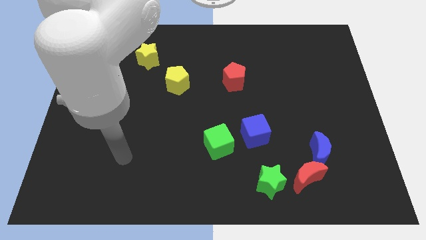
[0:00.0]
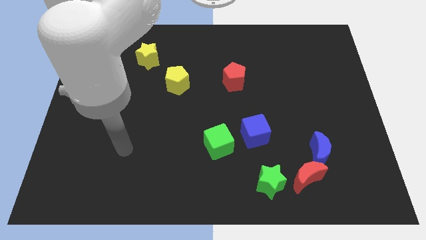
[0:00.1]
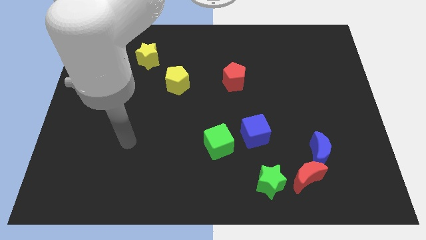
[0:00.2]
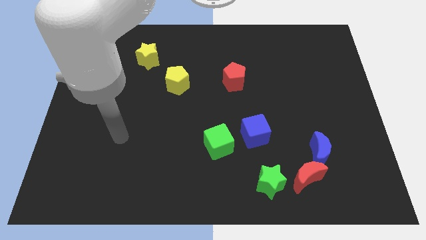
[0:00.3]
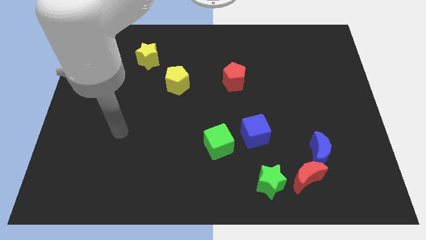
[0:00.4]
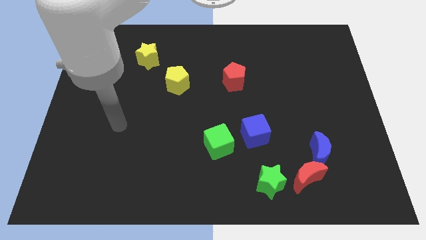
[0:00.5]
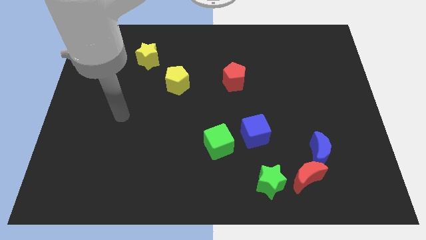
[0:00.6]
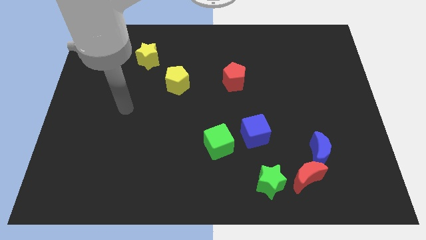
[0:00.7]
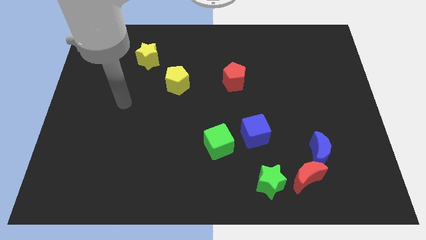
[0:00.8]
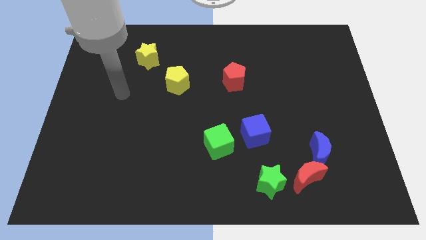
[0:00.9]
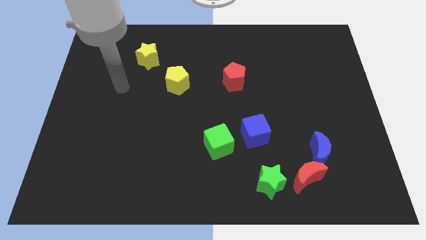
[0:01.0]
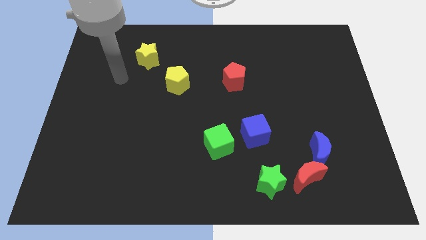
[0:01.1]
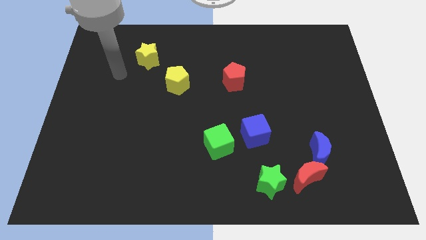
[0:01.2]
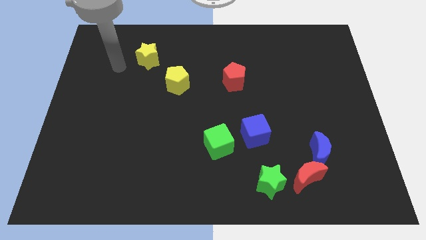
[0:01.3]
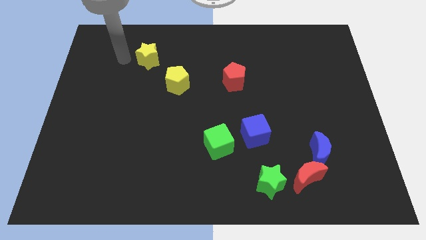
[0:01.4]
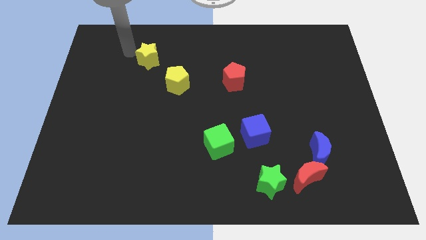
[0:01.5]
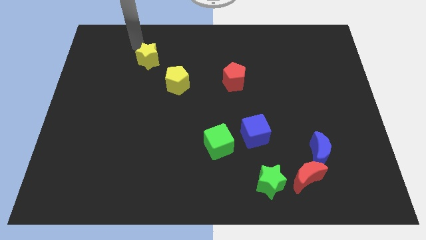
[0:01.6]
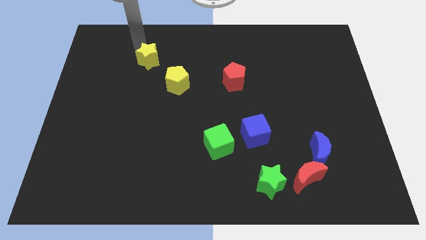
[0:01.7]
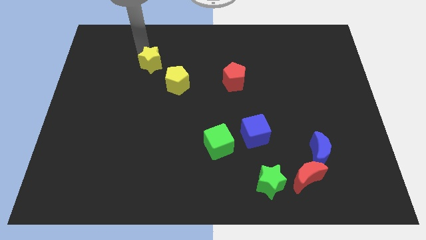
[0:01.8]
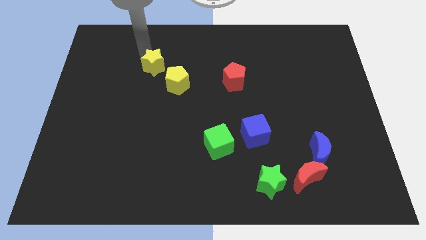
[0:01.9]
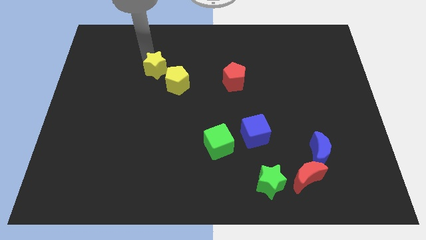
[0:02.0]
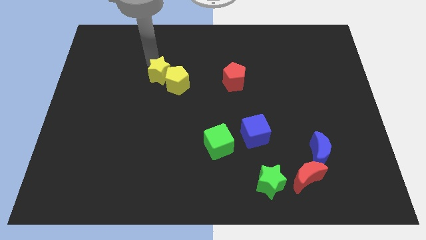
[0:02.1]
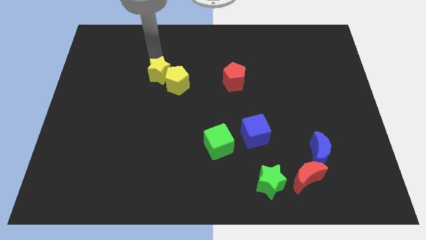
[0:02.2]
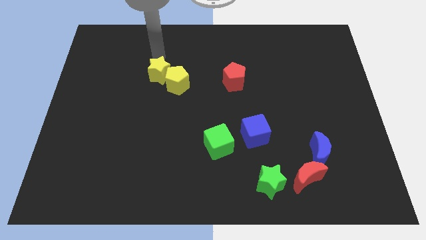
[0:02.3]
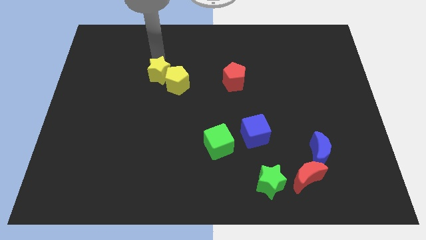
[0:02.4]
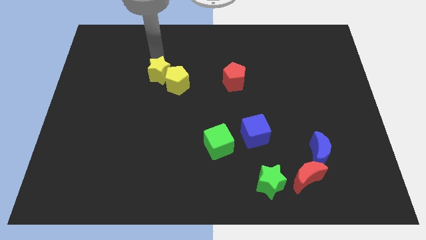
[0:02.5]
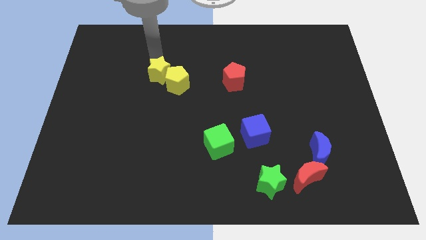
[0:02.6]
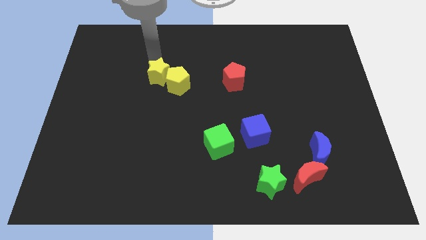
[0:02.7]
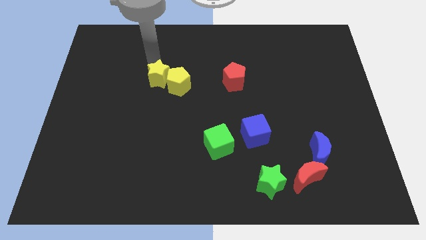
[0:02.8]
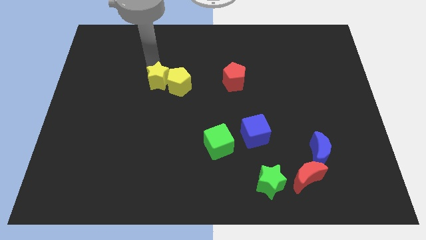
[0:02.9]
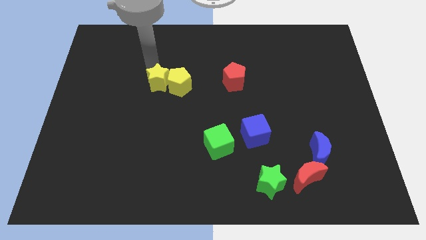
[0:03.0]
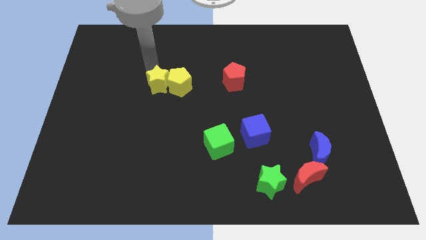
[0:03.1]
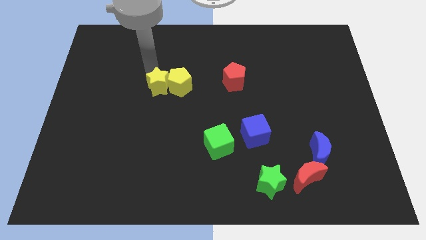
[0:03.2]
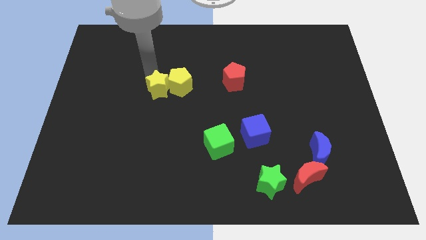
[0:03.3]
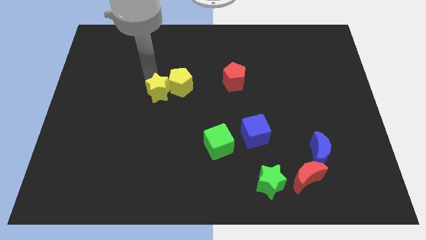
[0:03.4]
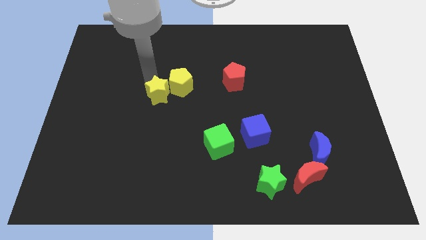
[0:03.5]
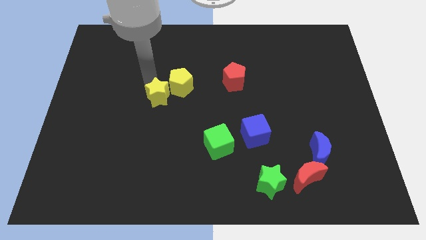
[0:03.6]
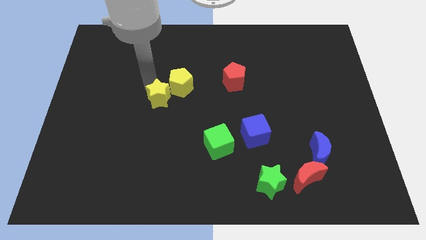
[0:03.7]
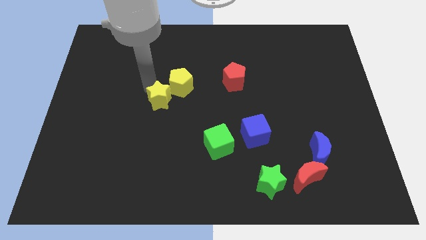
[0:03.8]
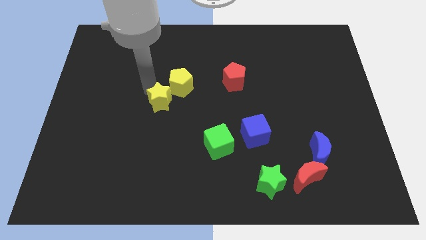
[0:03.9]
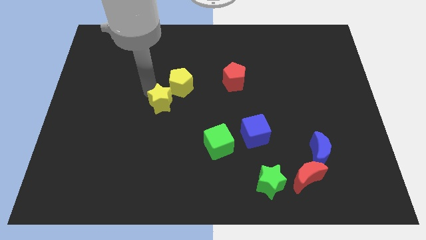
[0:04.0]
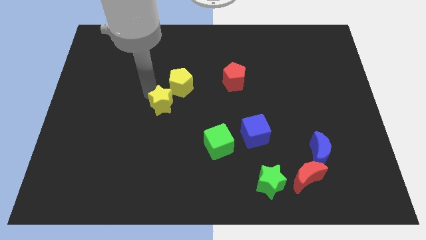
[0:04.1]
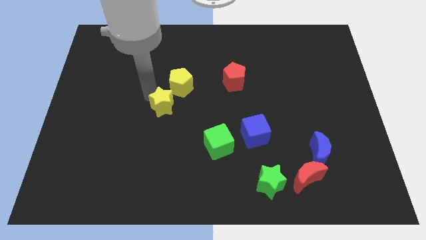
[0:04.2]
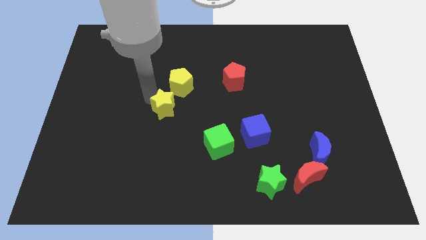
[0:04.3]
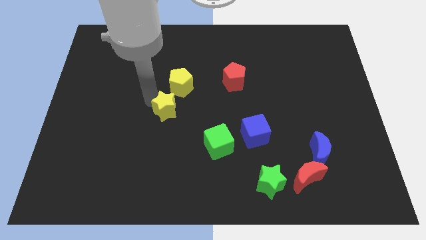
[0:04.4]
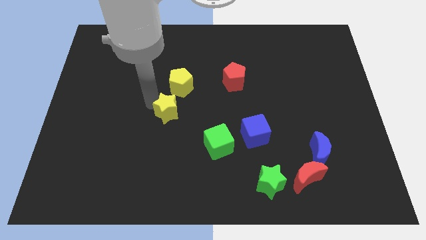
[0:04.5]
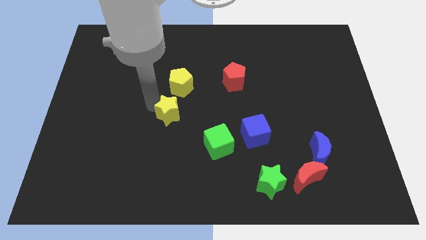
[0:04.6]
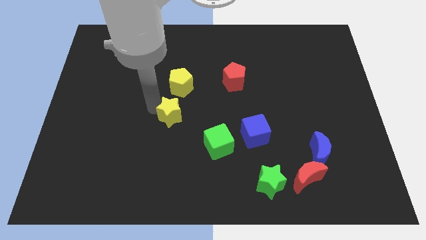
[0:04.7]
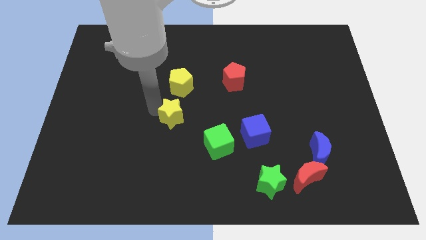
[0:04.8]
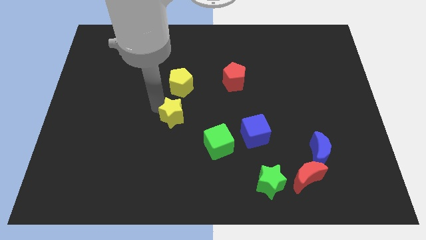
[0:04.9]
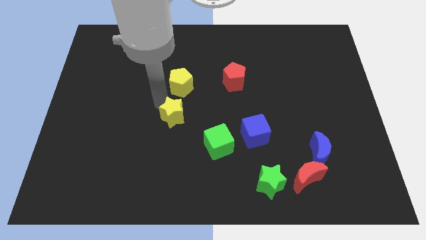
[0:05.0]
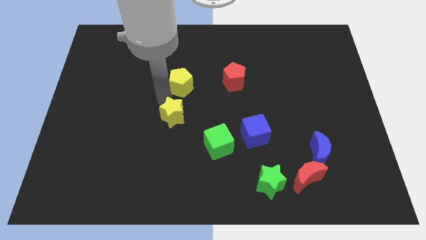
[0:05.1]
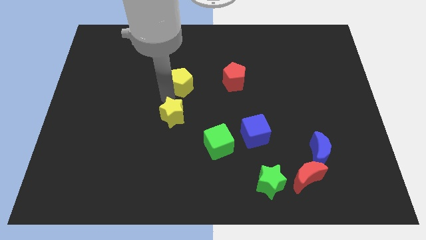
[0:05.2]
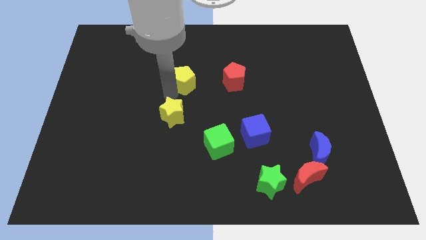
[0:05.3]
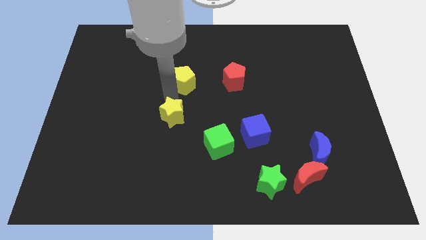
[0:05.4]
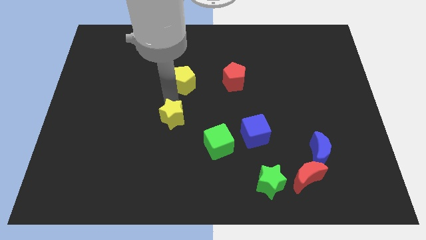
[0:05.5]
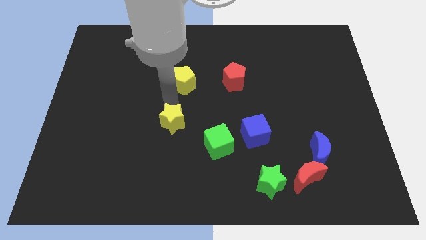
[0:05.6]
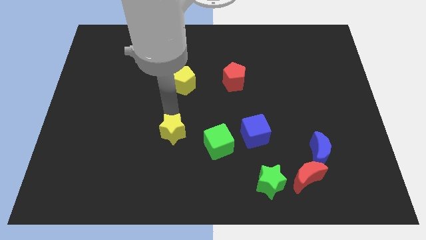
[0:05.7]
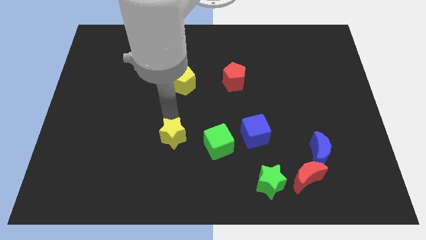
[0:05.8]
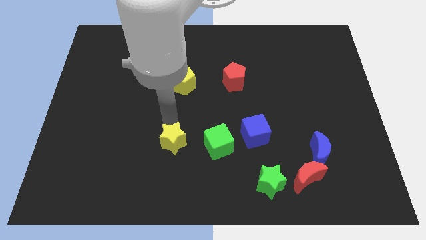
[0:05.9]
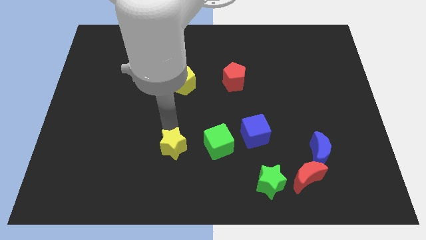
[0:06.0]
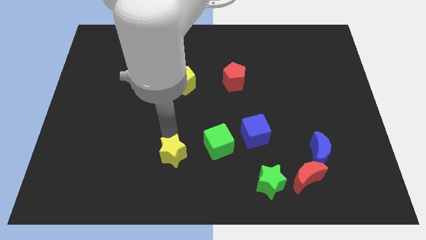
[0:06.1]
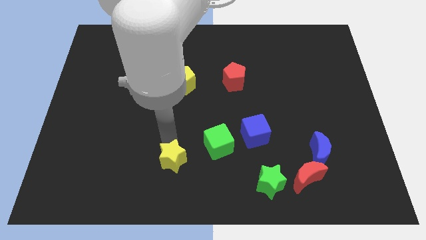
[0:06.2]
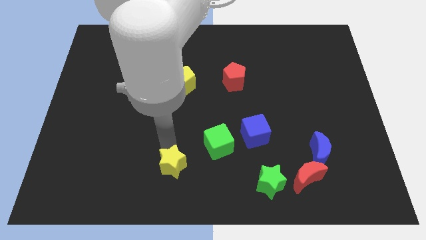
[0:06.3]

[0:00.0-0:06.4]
push the yellow star to the bottom
